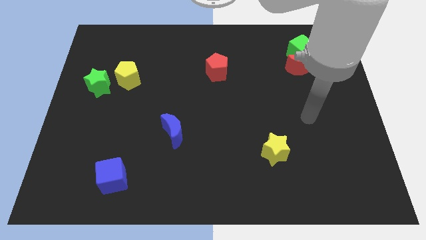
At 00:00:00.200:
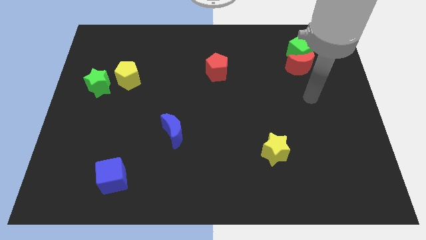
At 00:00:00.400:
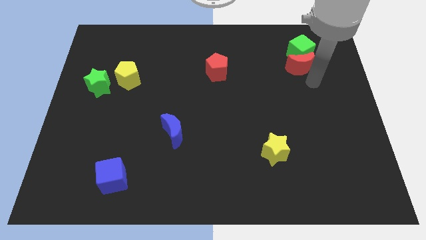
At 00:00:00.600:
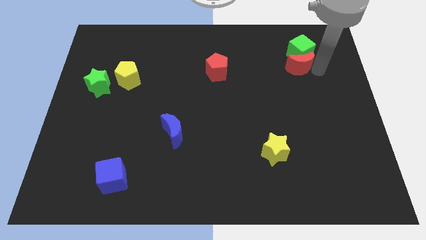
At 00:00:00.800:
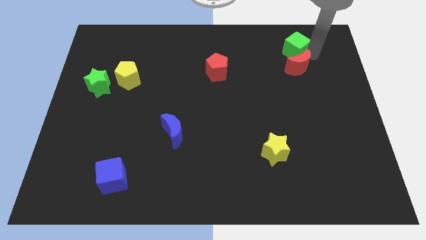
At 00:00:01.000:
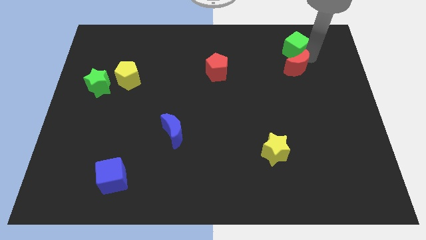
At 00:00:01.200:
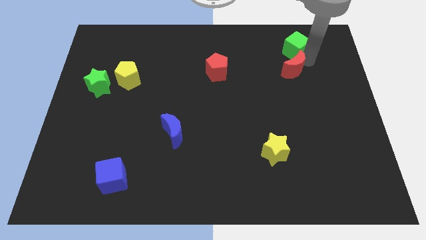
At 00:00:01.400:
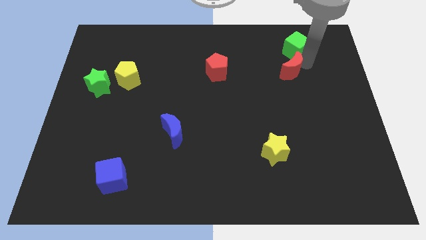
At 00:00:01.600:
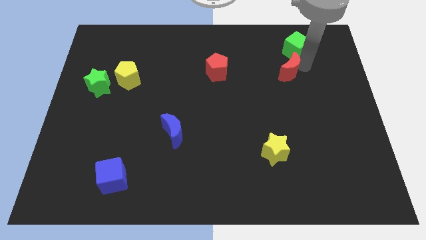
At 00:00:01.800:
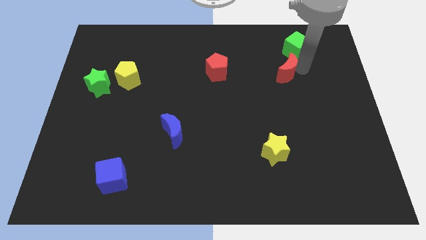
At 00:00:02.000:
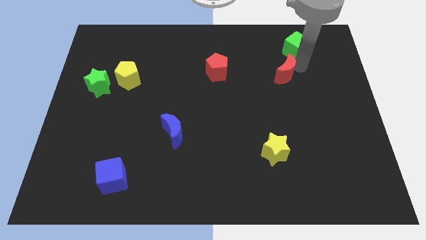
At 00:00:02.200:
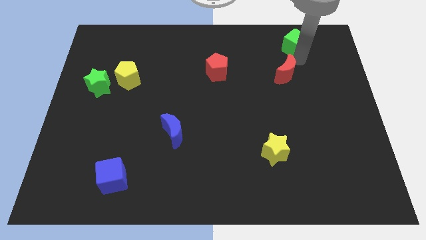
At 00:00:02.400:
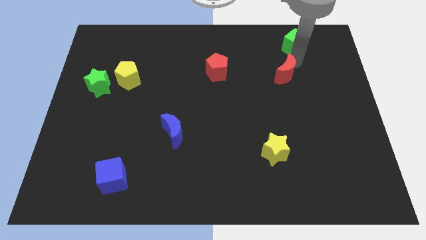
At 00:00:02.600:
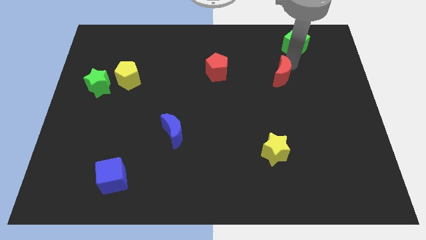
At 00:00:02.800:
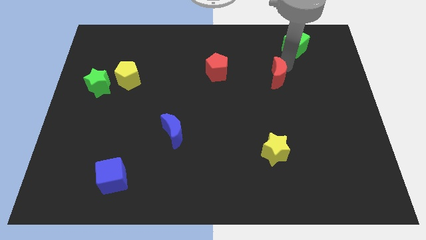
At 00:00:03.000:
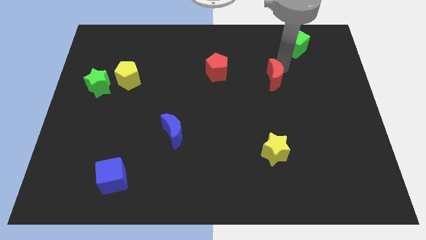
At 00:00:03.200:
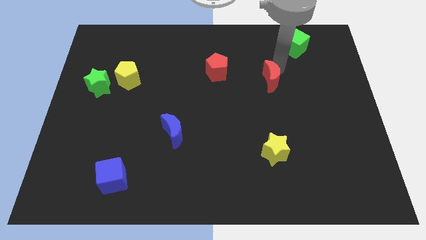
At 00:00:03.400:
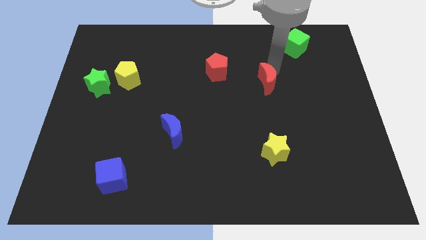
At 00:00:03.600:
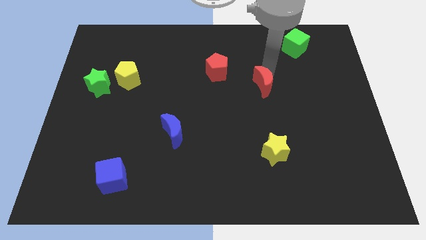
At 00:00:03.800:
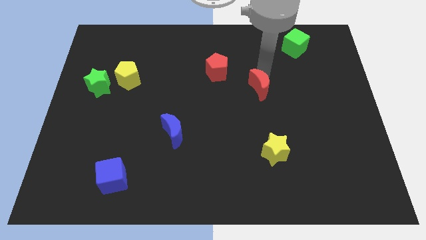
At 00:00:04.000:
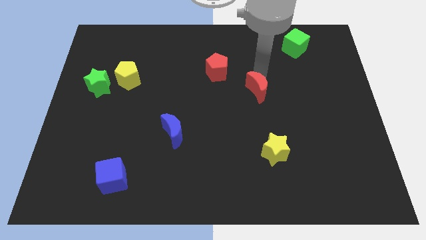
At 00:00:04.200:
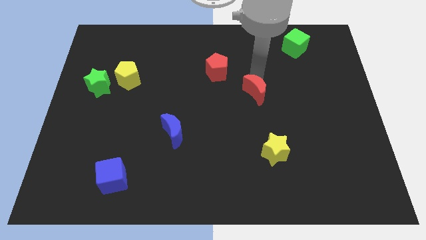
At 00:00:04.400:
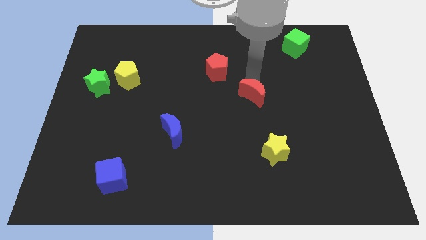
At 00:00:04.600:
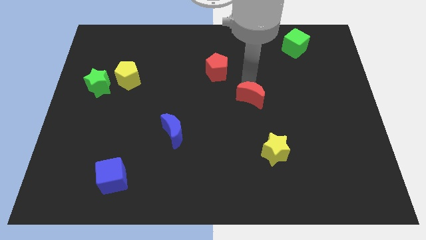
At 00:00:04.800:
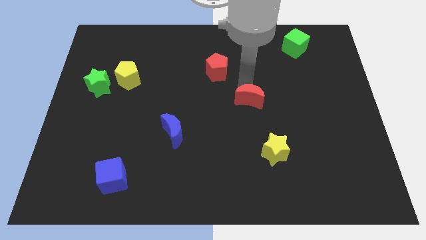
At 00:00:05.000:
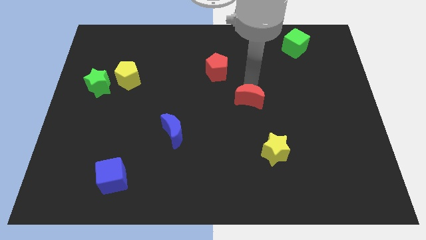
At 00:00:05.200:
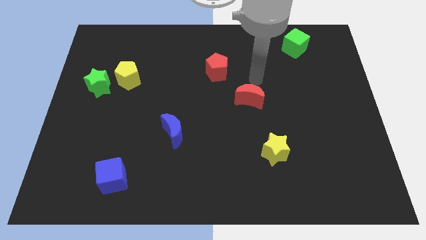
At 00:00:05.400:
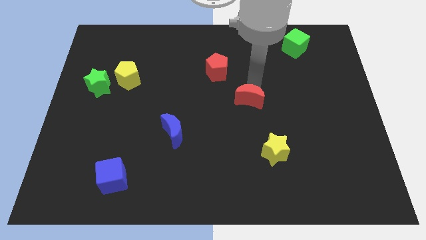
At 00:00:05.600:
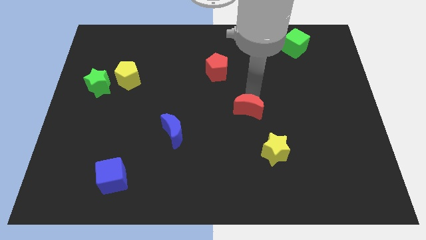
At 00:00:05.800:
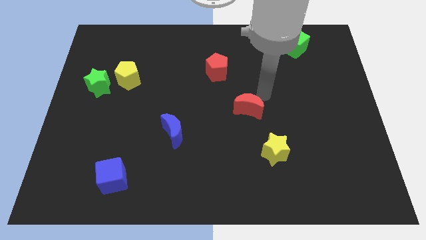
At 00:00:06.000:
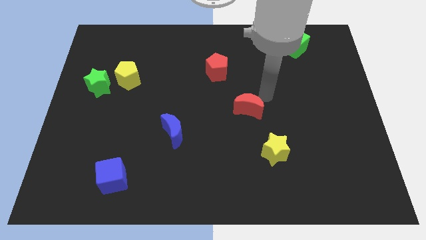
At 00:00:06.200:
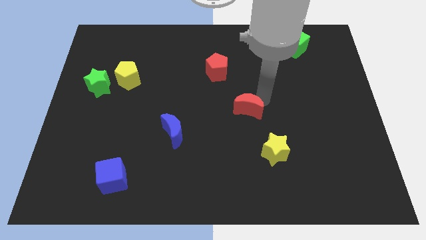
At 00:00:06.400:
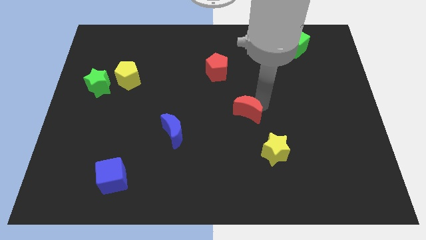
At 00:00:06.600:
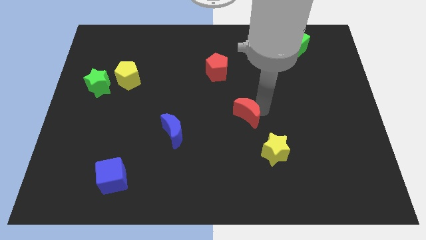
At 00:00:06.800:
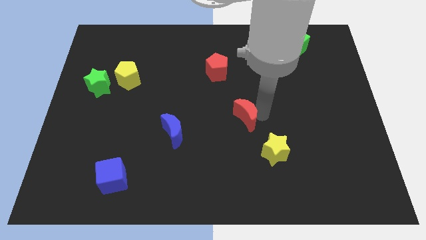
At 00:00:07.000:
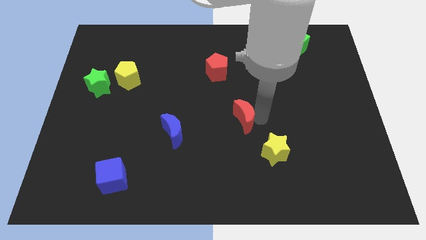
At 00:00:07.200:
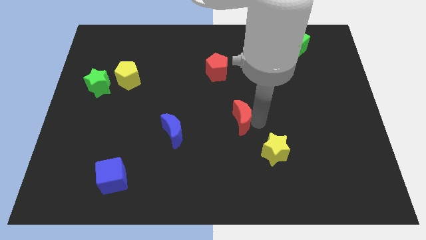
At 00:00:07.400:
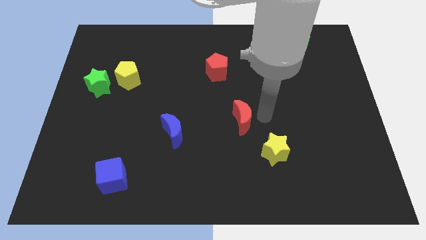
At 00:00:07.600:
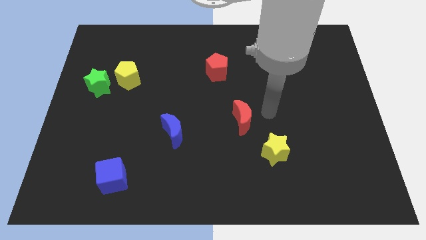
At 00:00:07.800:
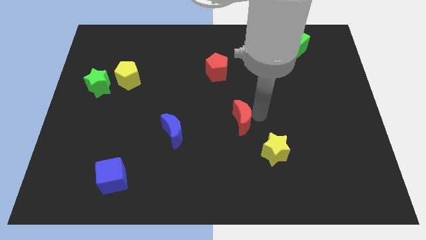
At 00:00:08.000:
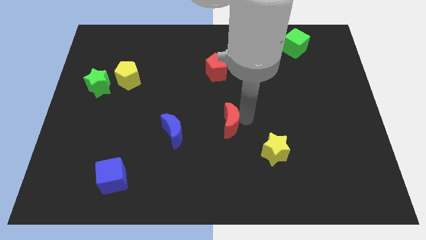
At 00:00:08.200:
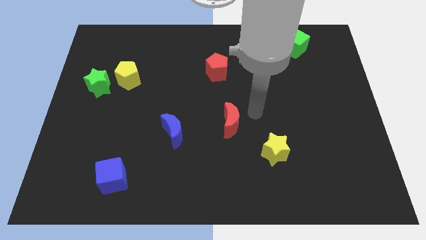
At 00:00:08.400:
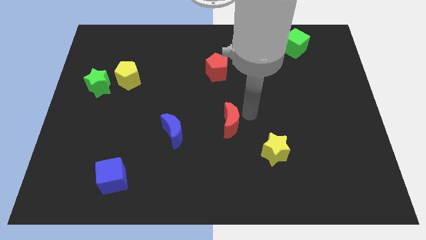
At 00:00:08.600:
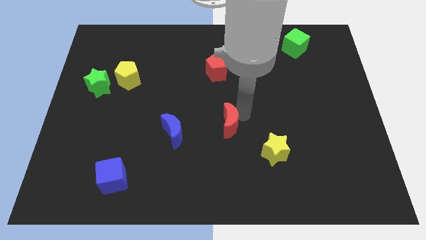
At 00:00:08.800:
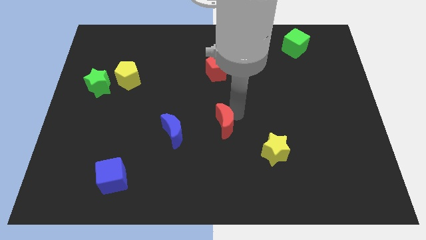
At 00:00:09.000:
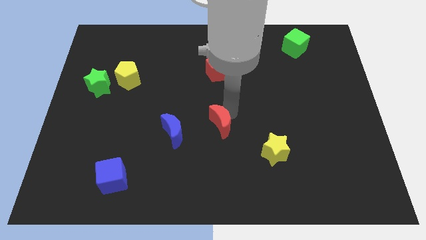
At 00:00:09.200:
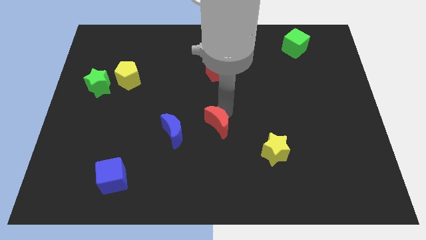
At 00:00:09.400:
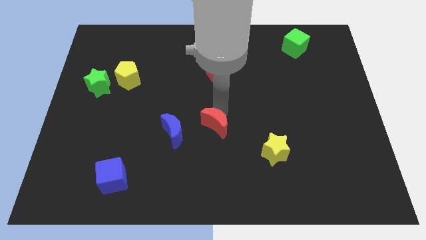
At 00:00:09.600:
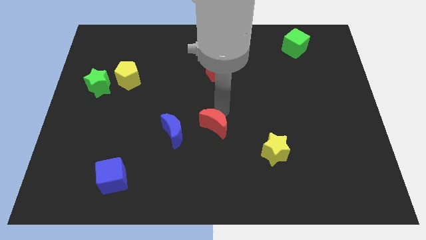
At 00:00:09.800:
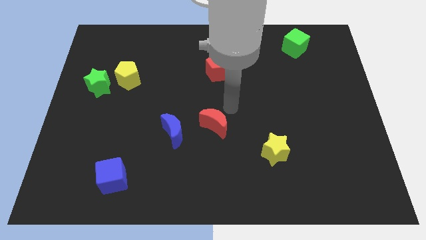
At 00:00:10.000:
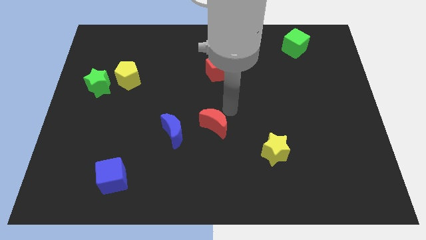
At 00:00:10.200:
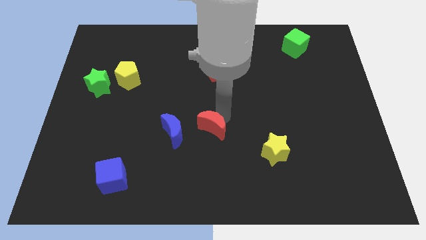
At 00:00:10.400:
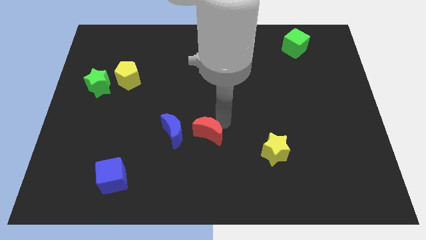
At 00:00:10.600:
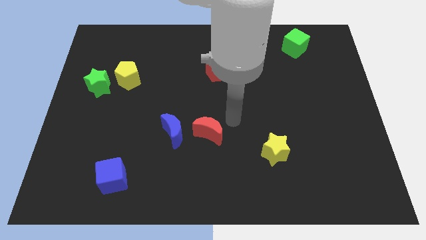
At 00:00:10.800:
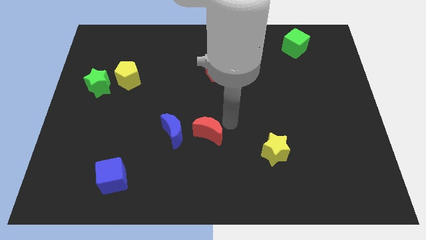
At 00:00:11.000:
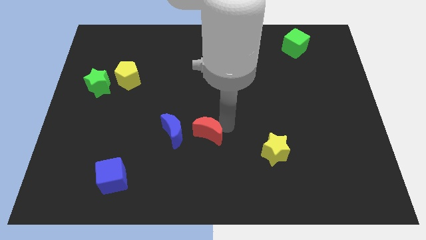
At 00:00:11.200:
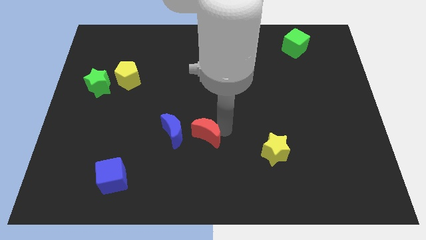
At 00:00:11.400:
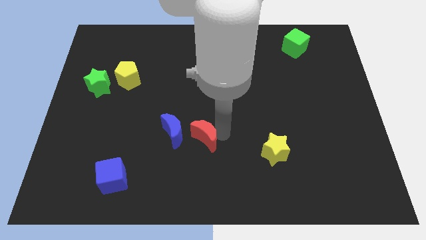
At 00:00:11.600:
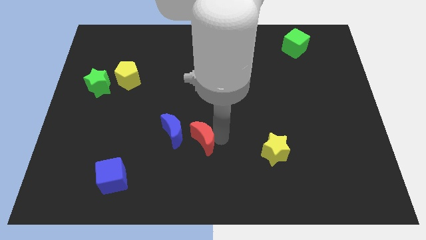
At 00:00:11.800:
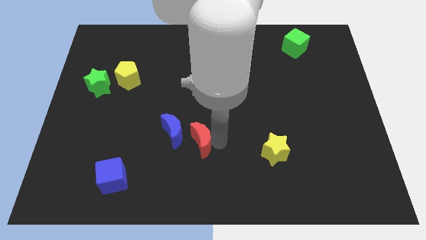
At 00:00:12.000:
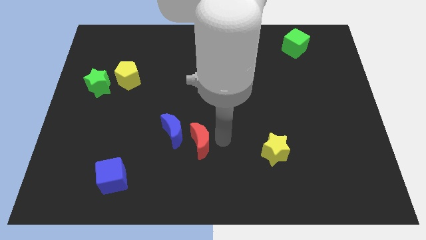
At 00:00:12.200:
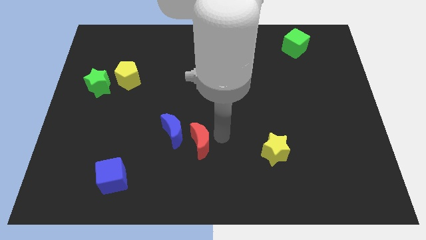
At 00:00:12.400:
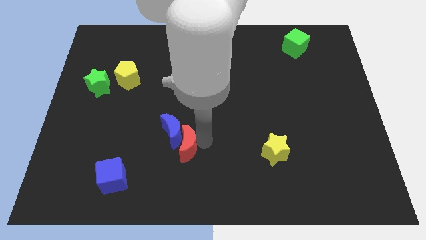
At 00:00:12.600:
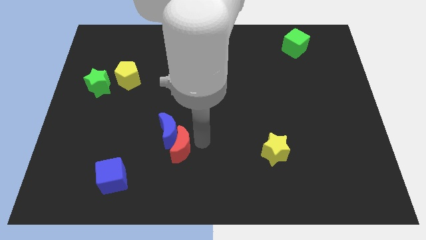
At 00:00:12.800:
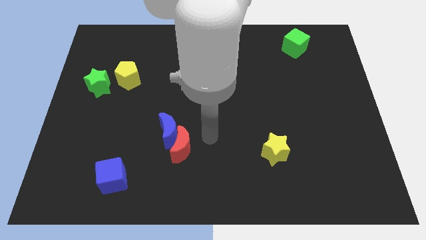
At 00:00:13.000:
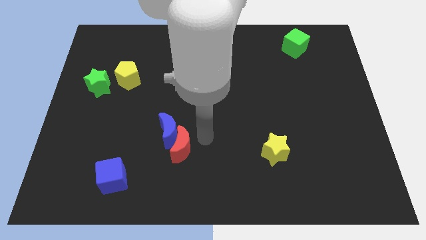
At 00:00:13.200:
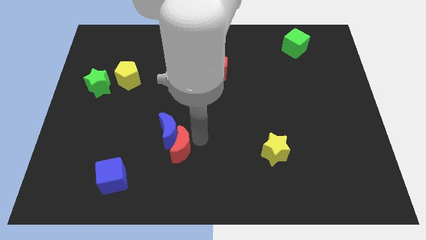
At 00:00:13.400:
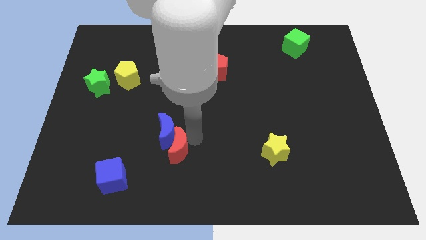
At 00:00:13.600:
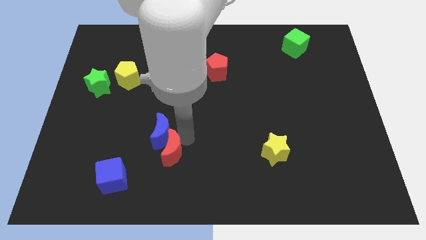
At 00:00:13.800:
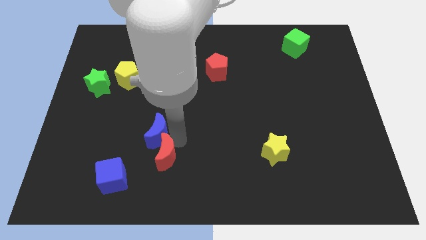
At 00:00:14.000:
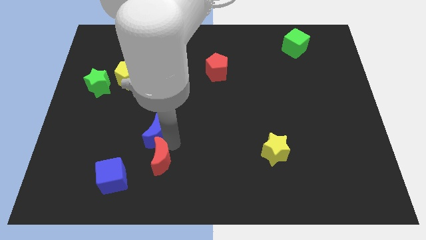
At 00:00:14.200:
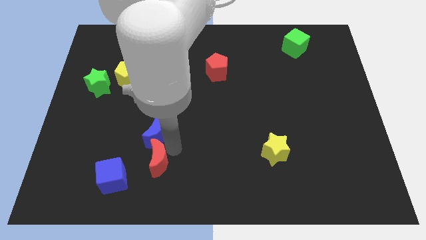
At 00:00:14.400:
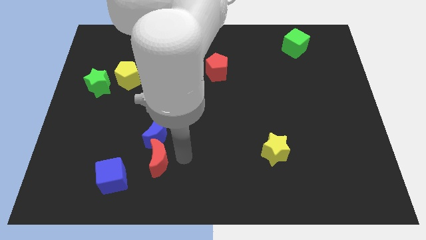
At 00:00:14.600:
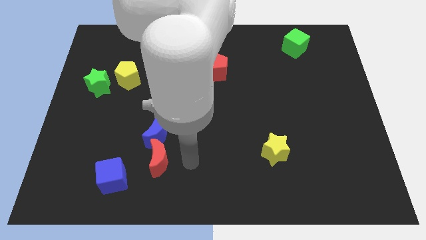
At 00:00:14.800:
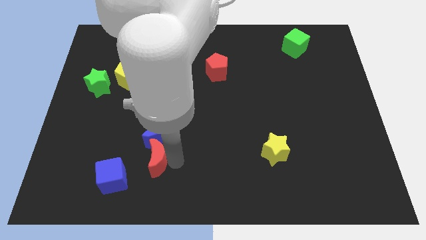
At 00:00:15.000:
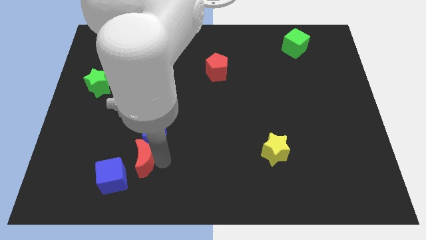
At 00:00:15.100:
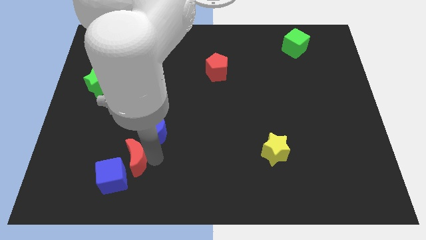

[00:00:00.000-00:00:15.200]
push the red moon next to the blue cube
